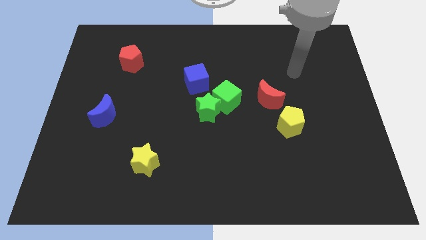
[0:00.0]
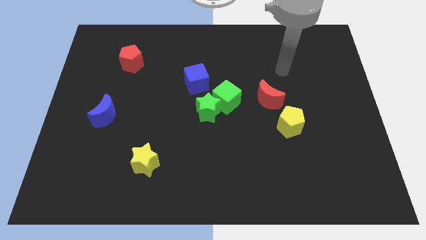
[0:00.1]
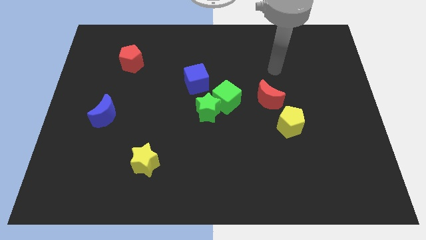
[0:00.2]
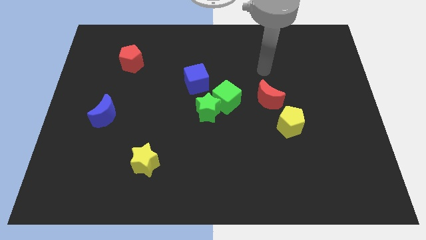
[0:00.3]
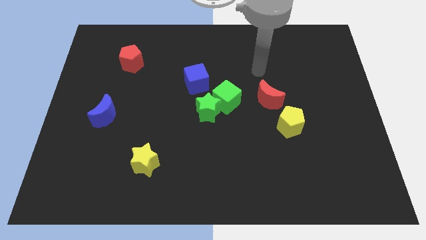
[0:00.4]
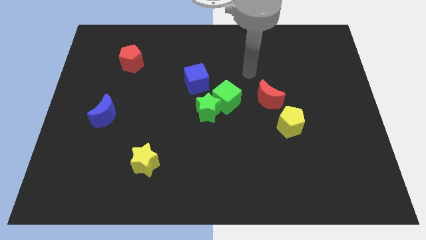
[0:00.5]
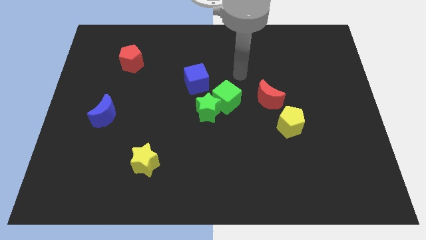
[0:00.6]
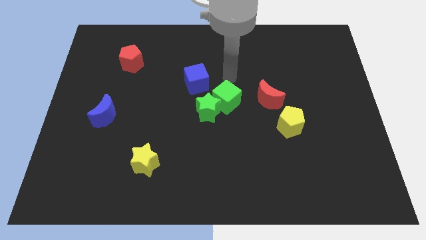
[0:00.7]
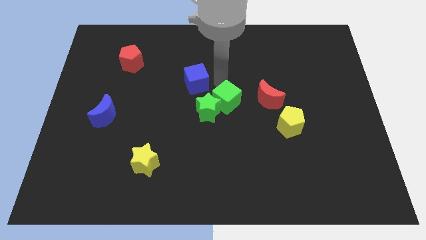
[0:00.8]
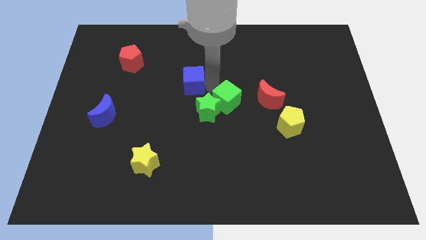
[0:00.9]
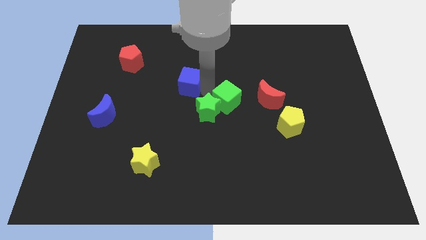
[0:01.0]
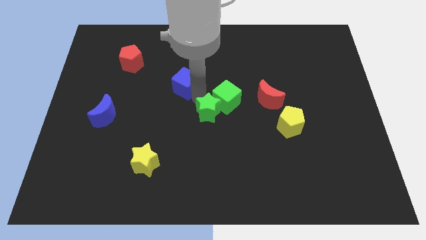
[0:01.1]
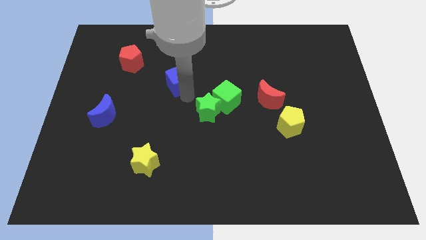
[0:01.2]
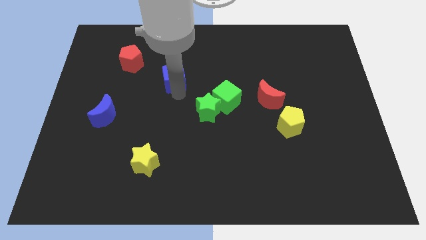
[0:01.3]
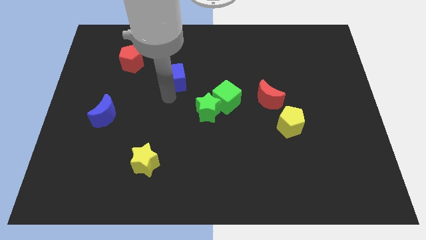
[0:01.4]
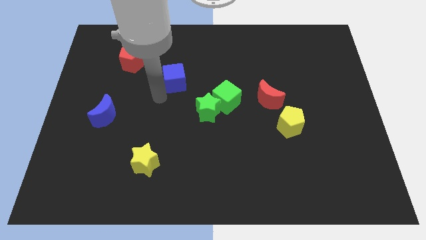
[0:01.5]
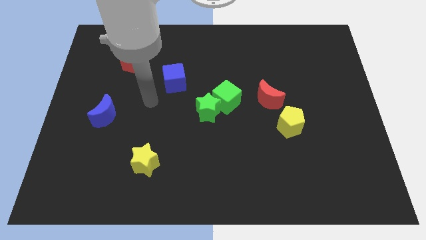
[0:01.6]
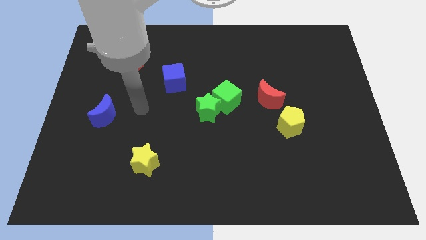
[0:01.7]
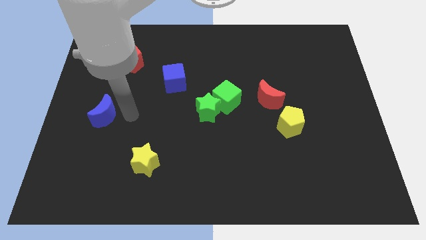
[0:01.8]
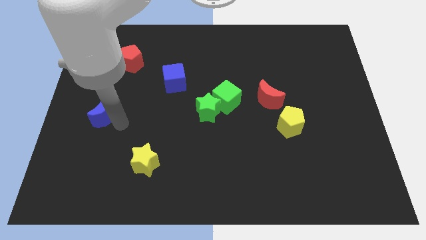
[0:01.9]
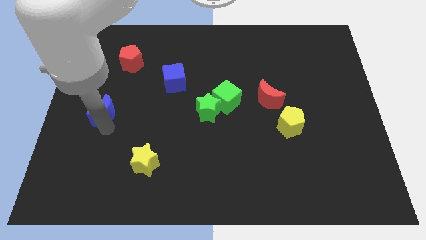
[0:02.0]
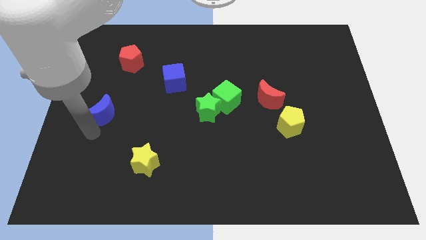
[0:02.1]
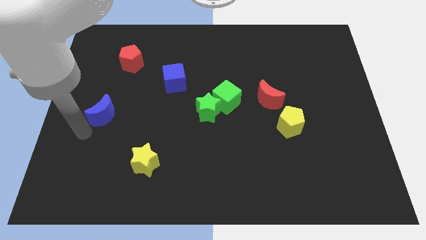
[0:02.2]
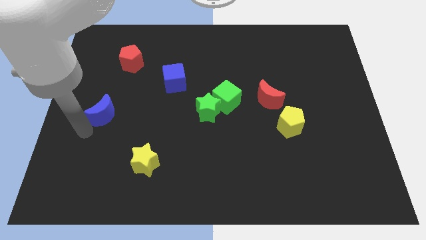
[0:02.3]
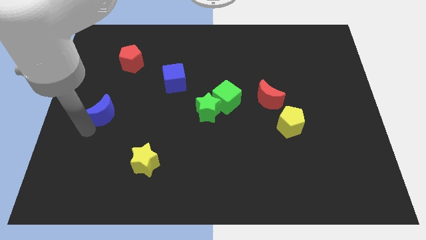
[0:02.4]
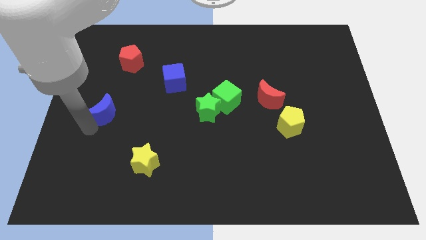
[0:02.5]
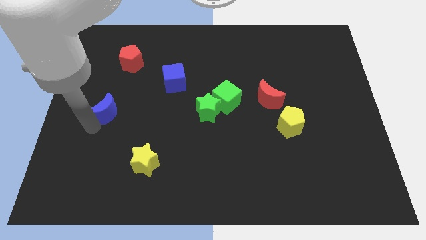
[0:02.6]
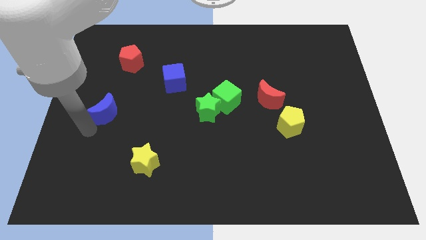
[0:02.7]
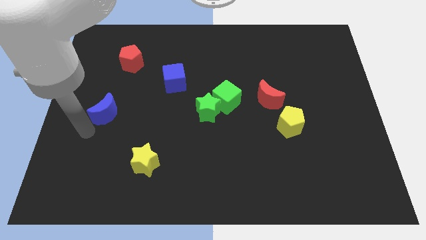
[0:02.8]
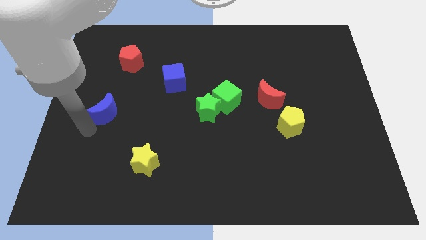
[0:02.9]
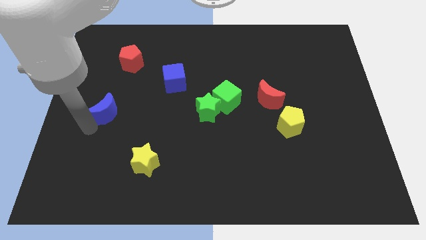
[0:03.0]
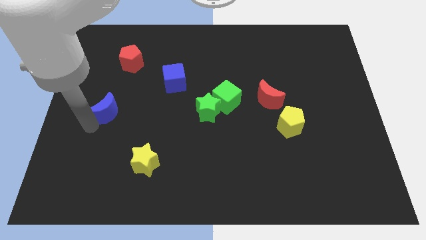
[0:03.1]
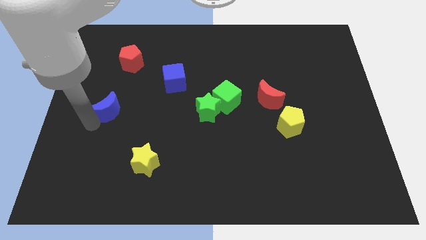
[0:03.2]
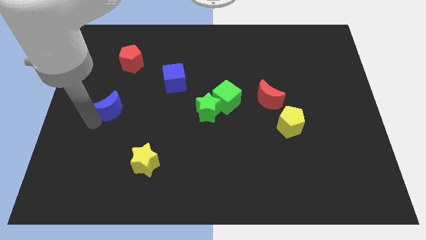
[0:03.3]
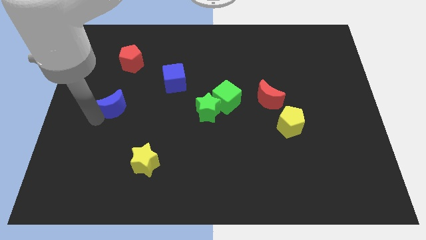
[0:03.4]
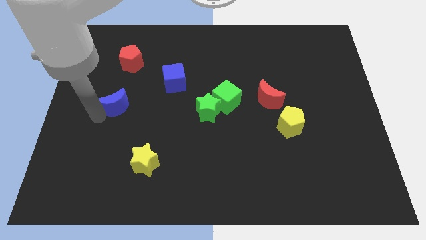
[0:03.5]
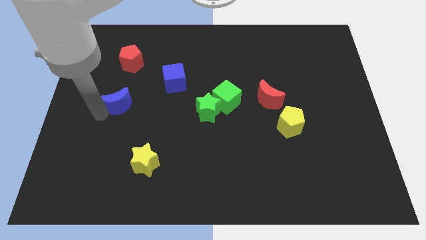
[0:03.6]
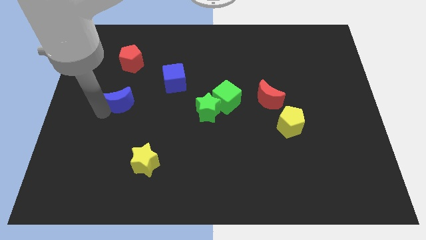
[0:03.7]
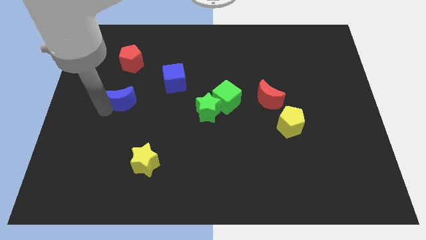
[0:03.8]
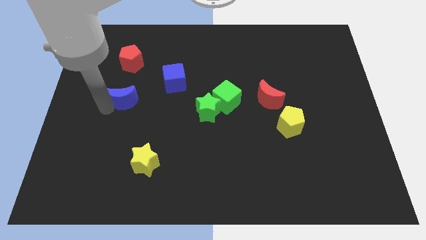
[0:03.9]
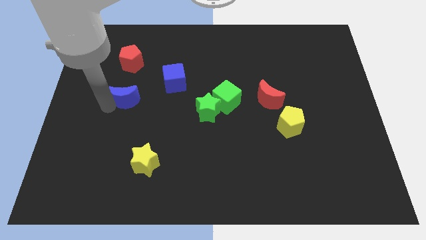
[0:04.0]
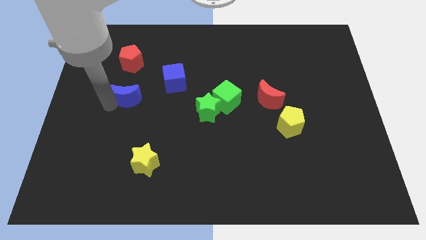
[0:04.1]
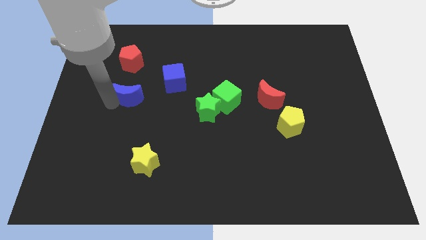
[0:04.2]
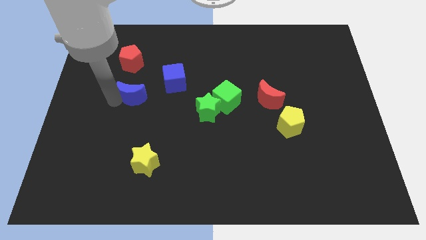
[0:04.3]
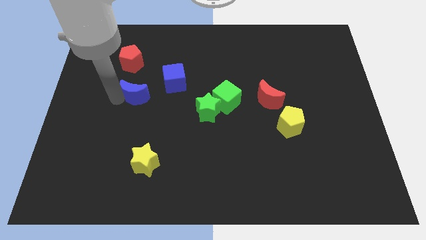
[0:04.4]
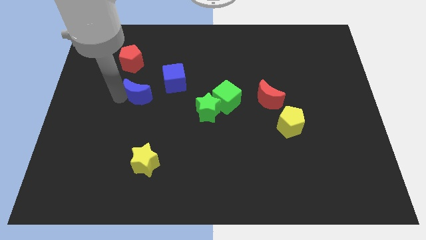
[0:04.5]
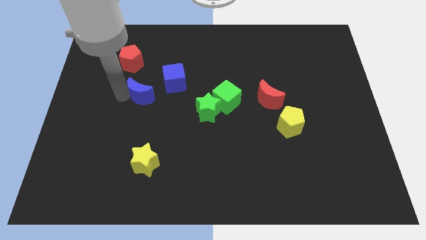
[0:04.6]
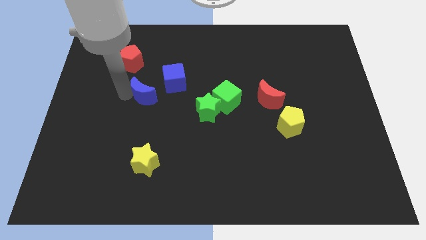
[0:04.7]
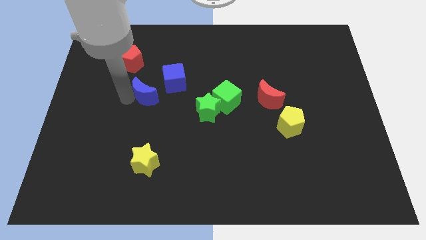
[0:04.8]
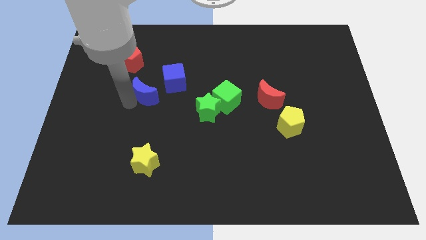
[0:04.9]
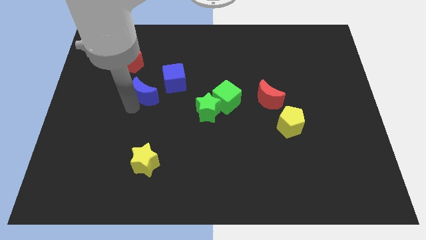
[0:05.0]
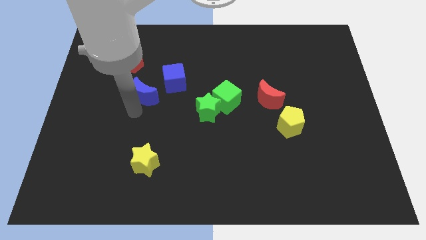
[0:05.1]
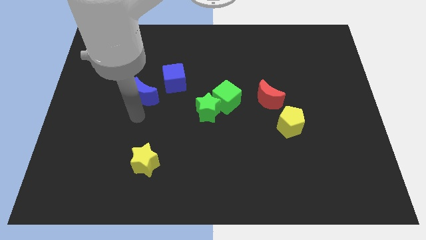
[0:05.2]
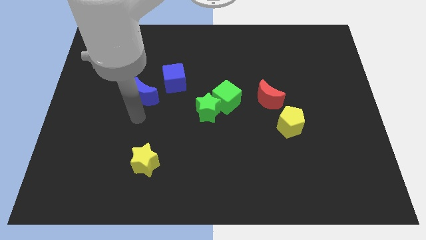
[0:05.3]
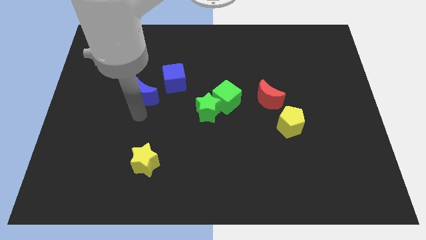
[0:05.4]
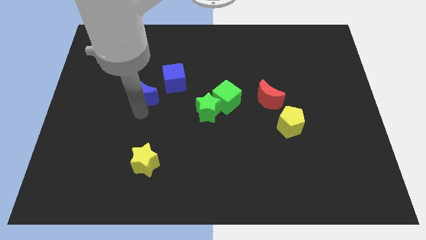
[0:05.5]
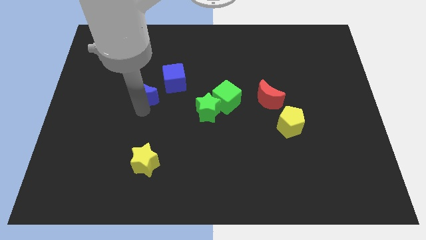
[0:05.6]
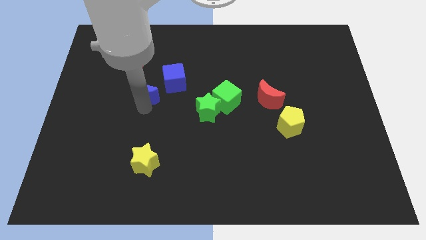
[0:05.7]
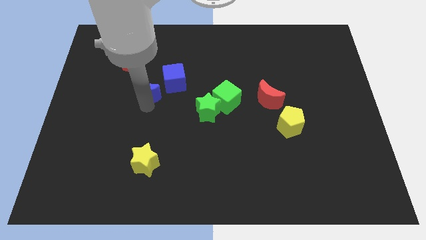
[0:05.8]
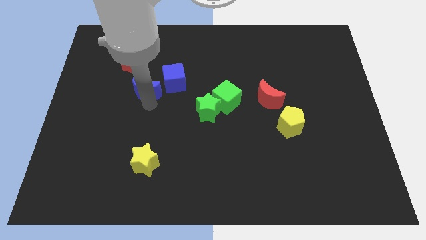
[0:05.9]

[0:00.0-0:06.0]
put the blue moon to the bottom right side of the red pentagon

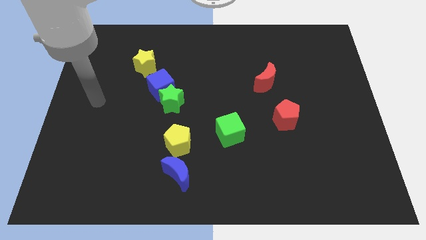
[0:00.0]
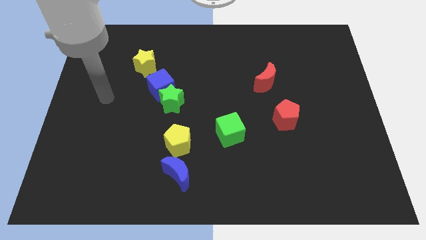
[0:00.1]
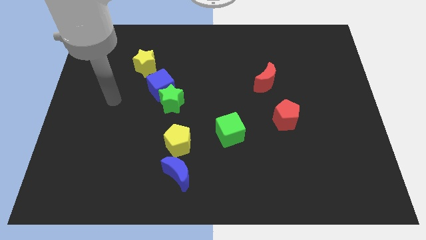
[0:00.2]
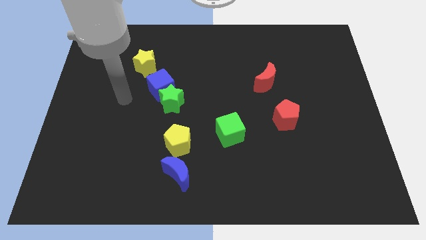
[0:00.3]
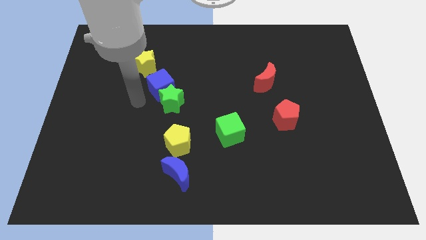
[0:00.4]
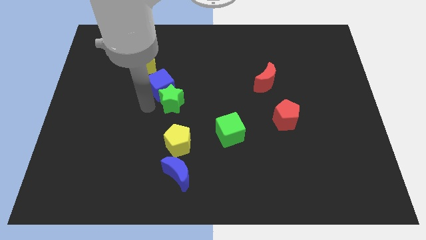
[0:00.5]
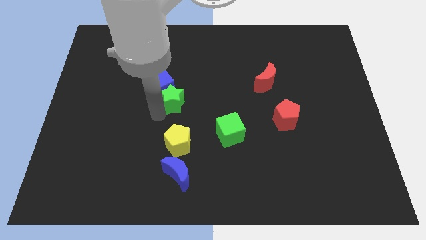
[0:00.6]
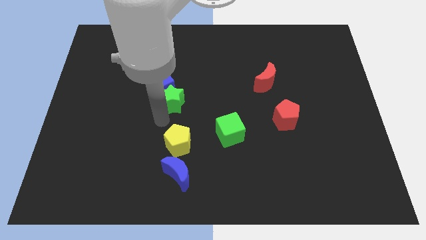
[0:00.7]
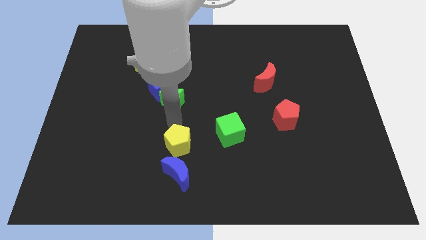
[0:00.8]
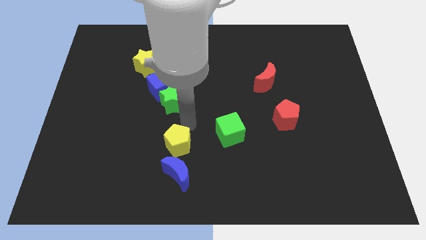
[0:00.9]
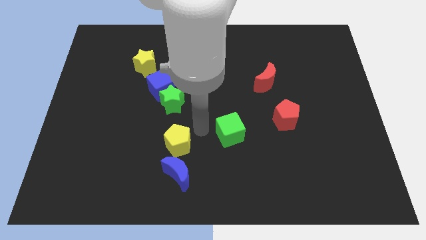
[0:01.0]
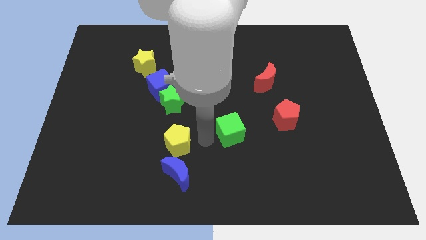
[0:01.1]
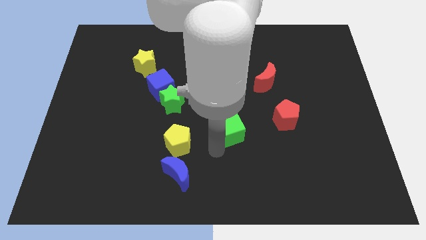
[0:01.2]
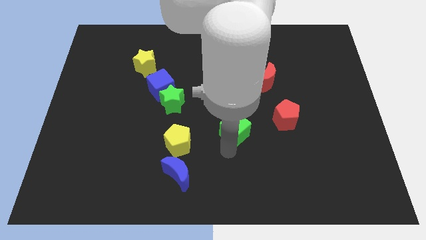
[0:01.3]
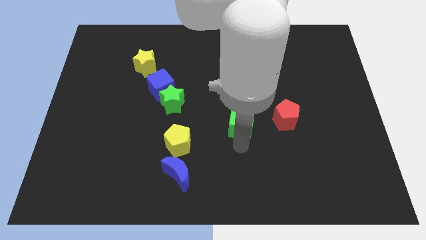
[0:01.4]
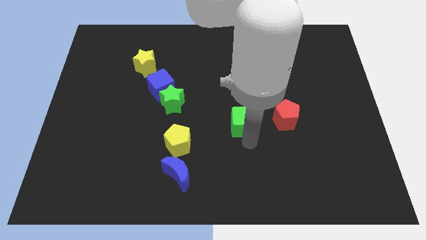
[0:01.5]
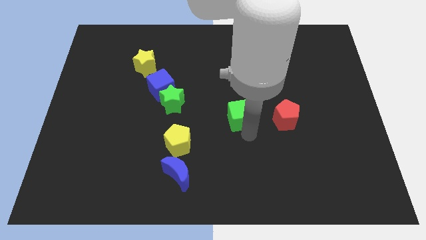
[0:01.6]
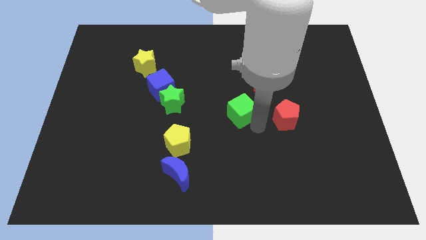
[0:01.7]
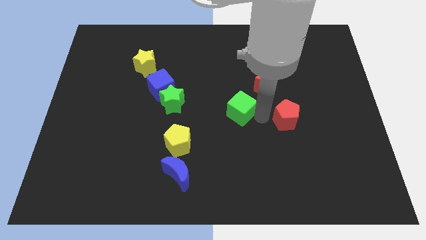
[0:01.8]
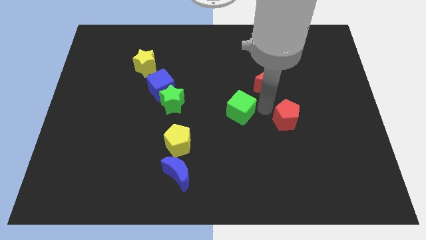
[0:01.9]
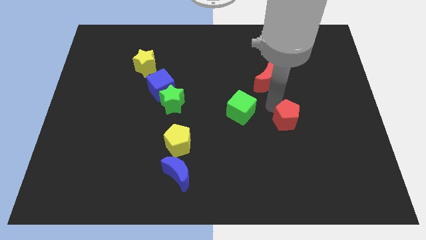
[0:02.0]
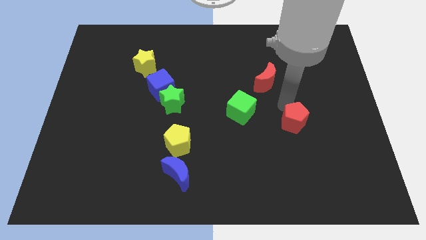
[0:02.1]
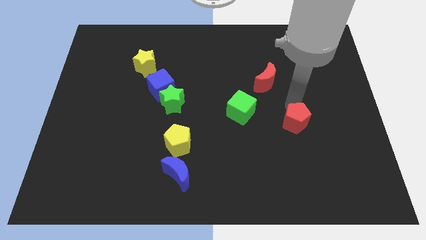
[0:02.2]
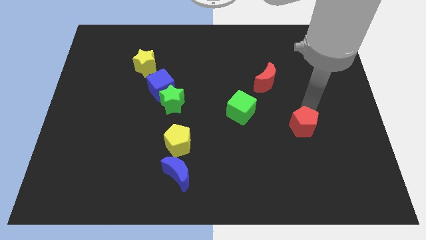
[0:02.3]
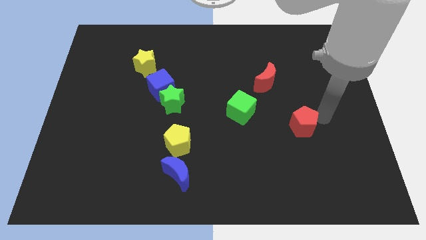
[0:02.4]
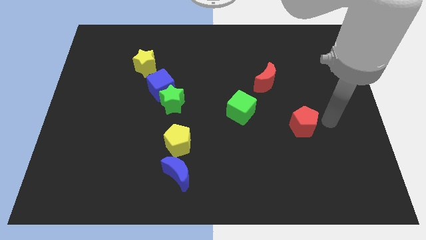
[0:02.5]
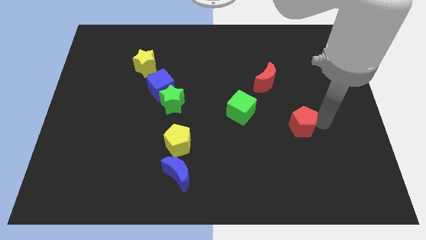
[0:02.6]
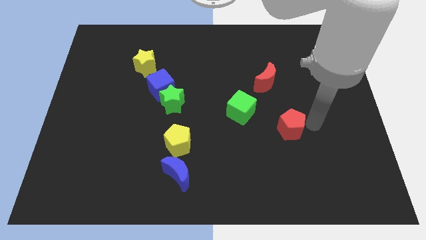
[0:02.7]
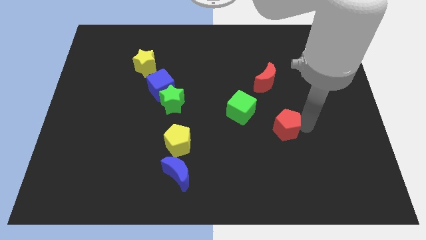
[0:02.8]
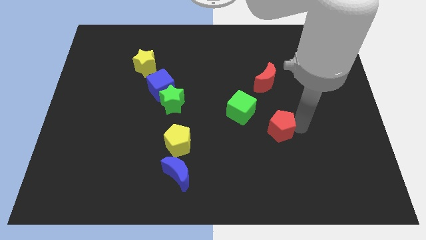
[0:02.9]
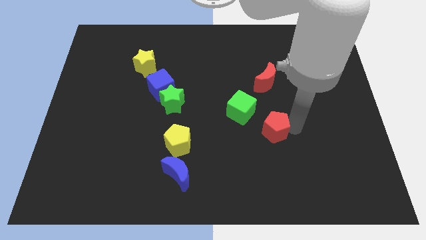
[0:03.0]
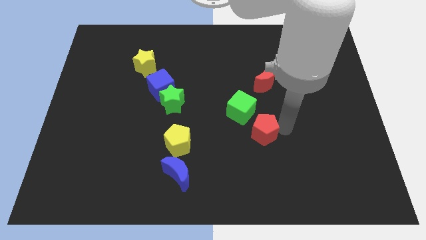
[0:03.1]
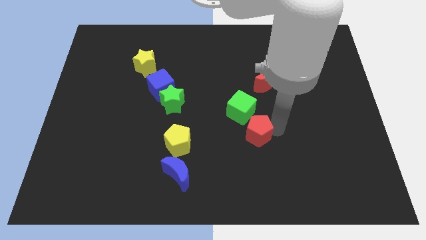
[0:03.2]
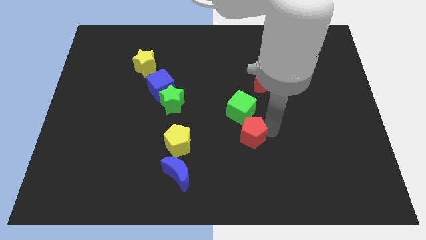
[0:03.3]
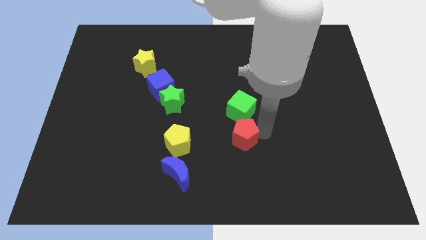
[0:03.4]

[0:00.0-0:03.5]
put the red pentagon right of the yellow pentagon
